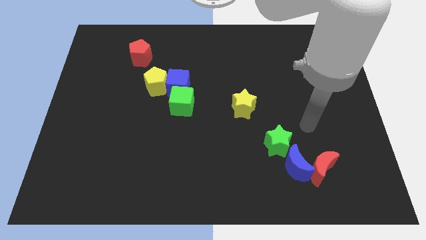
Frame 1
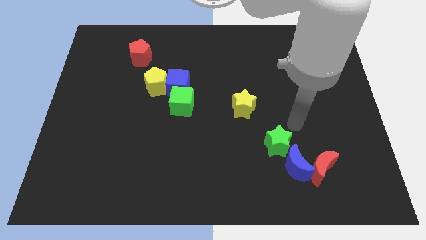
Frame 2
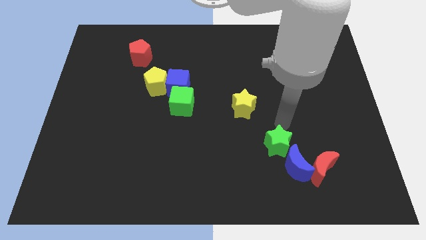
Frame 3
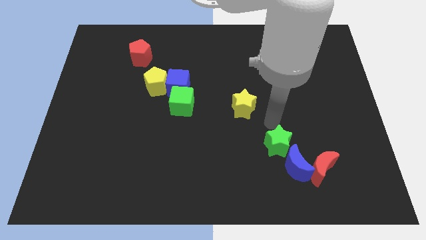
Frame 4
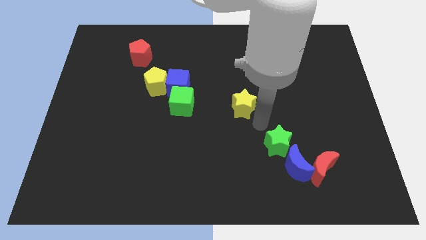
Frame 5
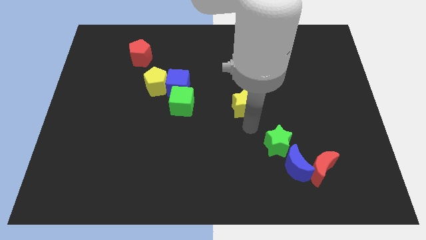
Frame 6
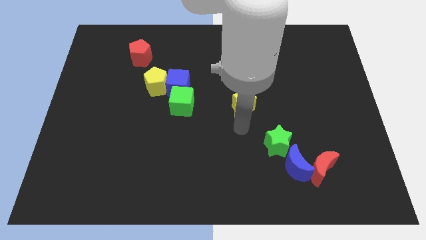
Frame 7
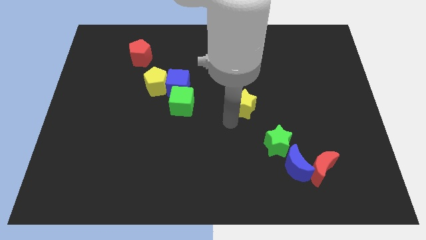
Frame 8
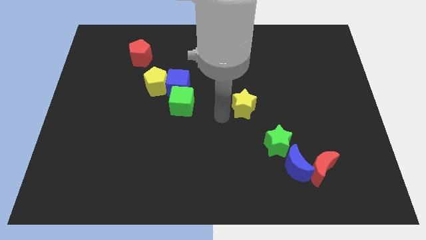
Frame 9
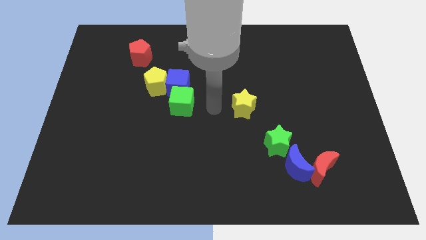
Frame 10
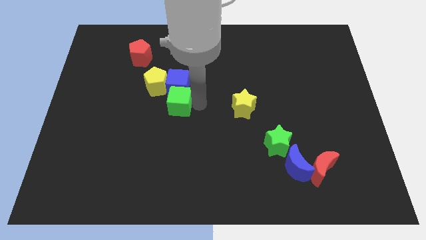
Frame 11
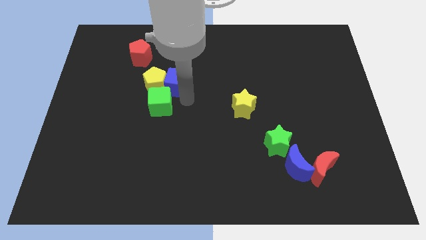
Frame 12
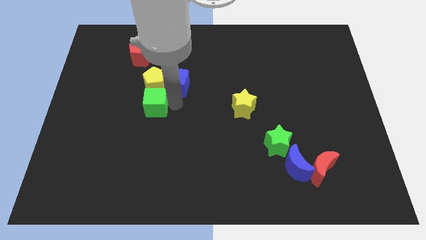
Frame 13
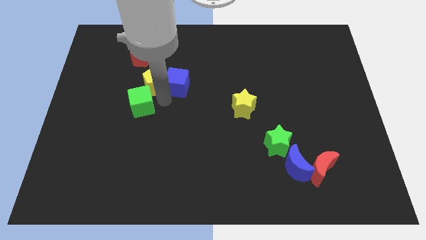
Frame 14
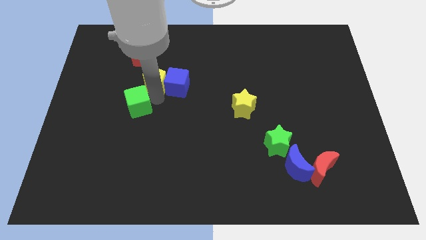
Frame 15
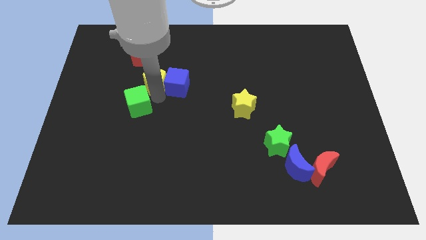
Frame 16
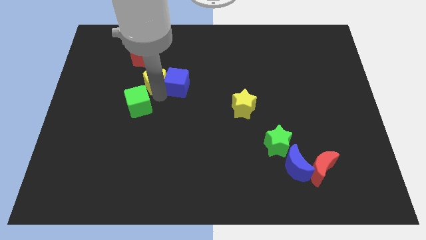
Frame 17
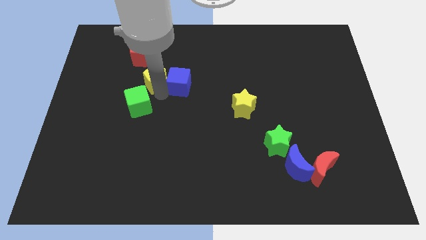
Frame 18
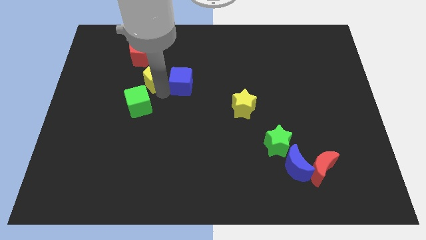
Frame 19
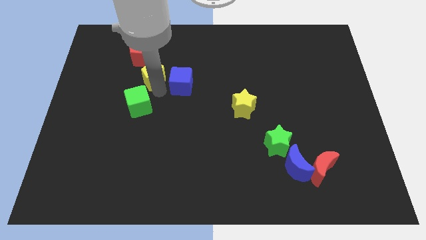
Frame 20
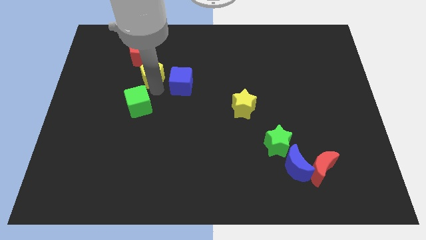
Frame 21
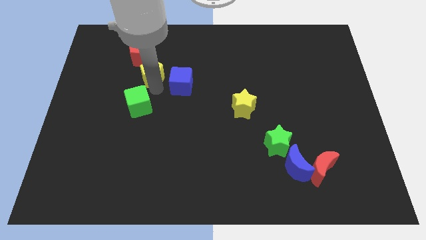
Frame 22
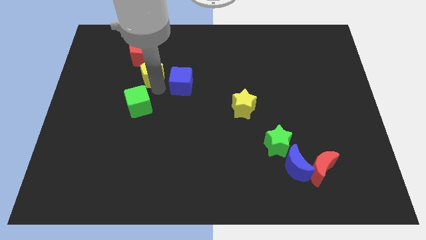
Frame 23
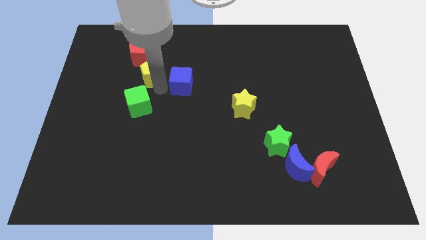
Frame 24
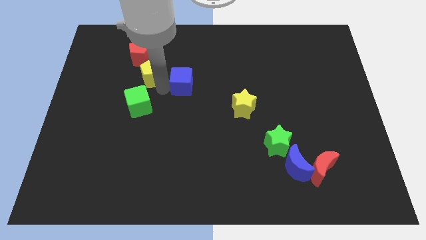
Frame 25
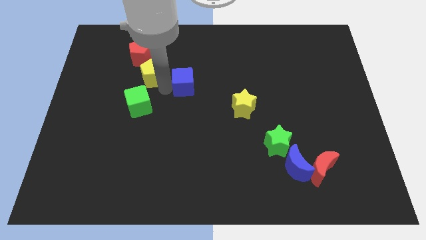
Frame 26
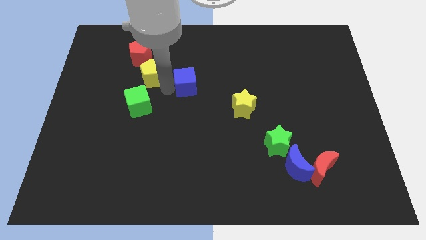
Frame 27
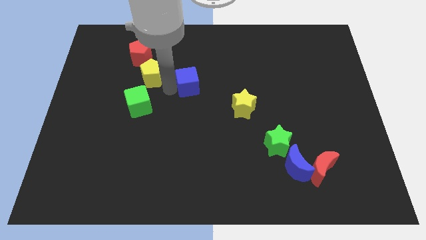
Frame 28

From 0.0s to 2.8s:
pull the blue cube apart from the yellow pentagon and green cube

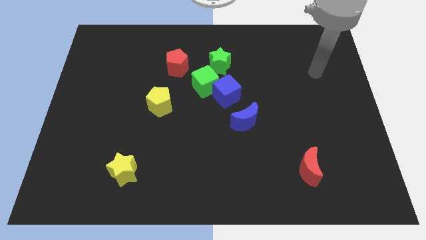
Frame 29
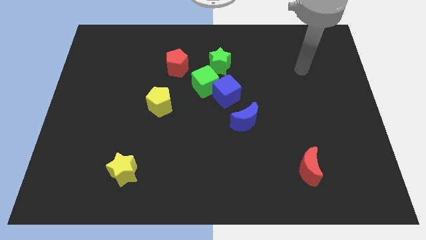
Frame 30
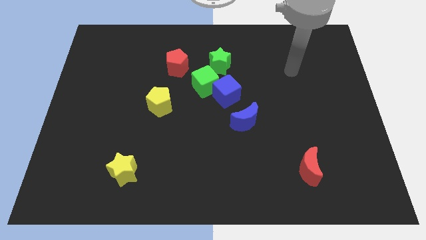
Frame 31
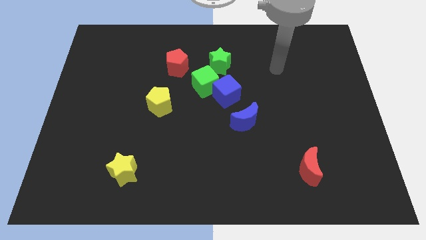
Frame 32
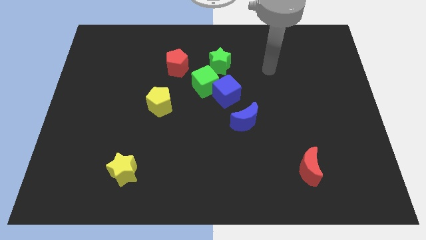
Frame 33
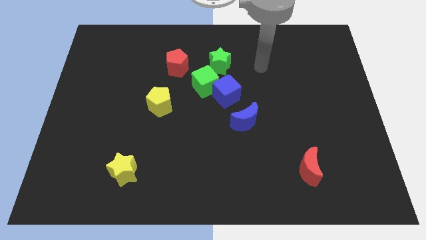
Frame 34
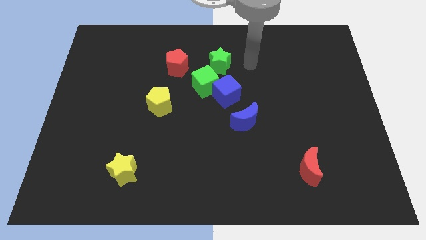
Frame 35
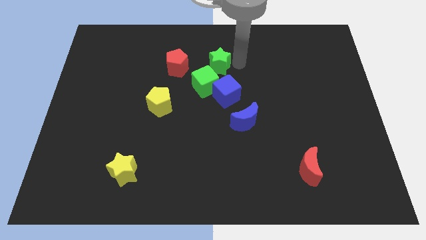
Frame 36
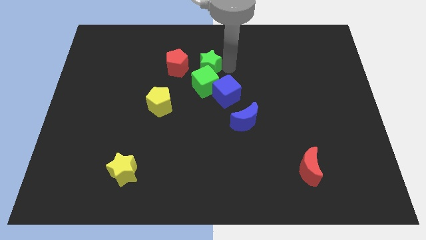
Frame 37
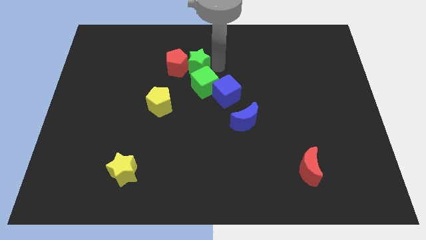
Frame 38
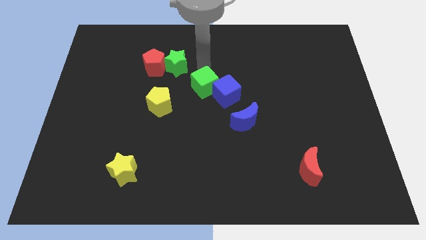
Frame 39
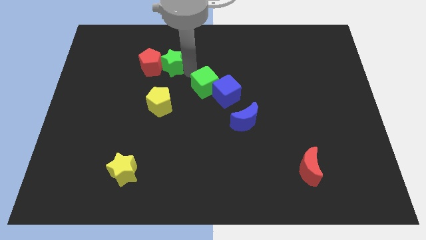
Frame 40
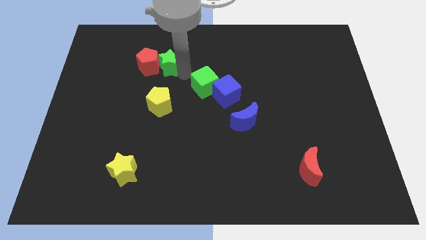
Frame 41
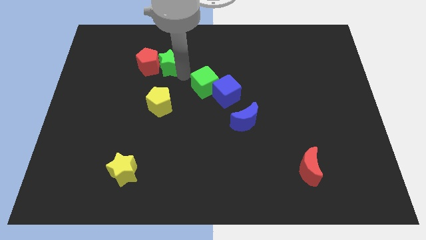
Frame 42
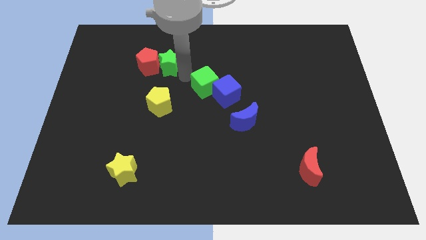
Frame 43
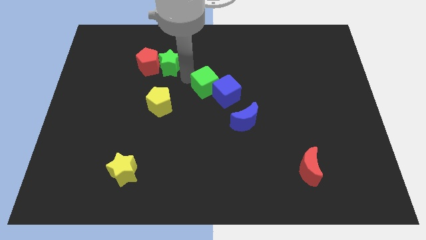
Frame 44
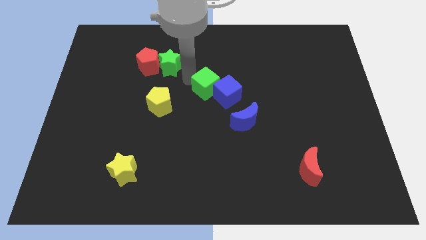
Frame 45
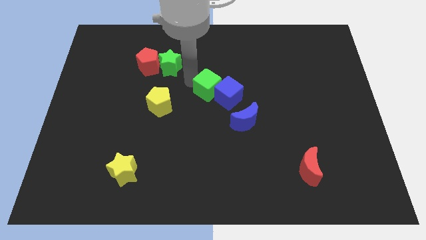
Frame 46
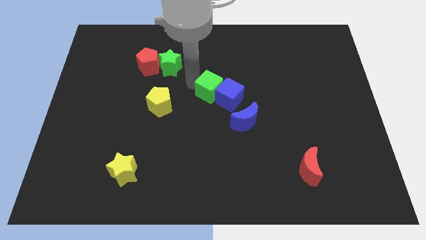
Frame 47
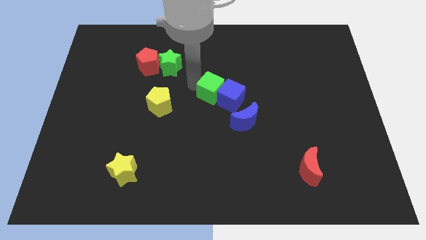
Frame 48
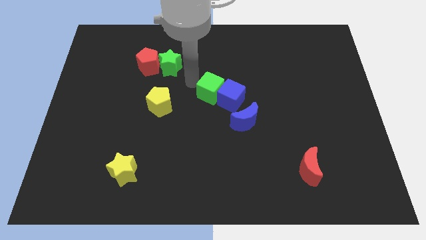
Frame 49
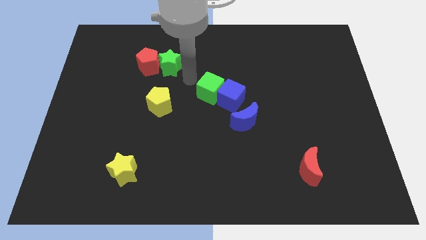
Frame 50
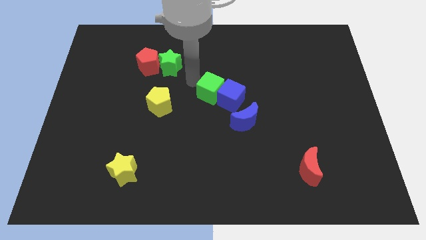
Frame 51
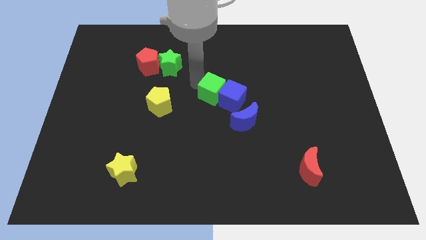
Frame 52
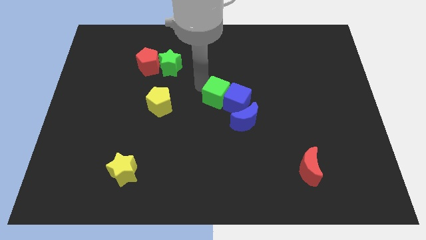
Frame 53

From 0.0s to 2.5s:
pull the green cube apart from the blue cube, green star, and red pentagon

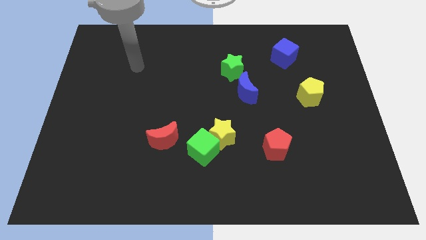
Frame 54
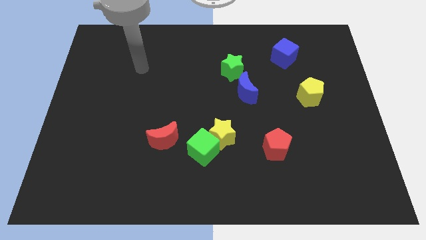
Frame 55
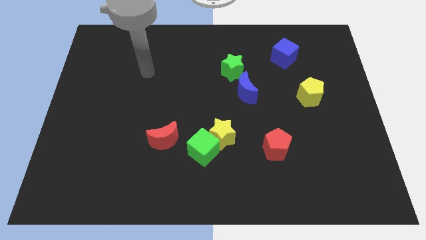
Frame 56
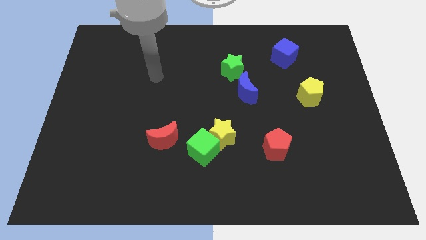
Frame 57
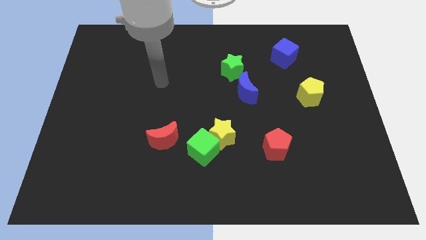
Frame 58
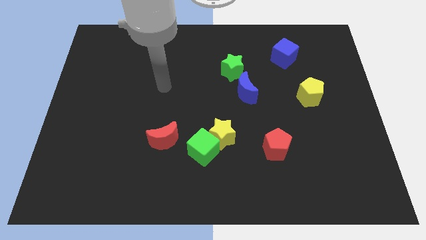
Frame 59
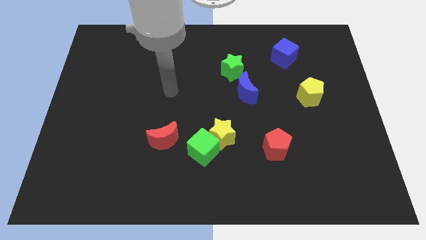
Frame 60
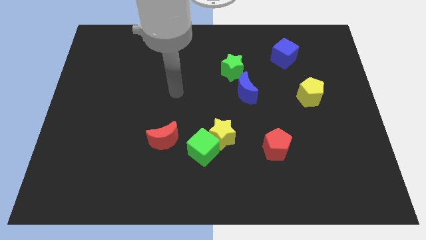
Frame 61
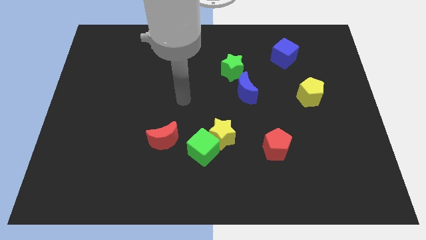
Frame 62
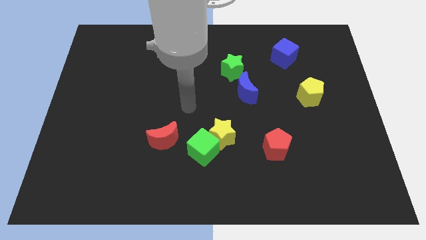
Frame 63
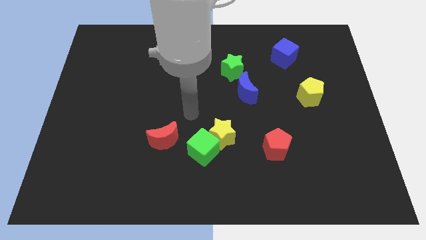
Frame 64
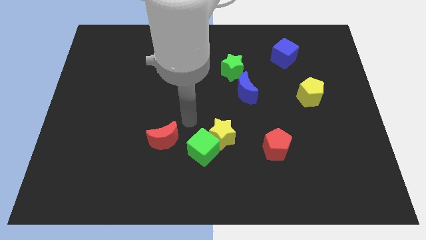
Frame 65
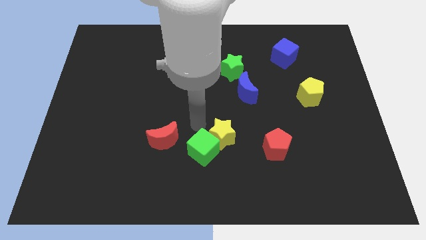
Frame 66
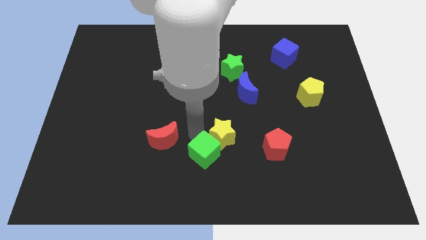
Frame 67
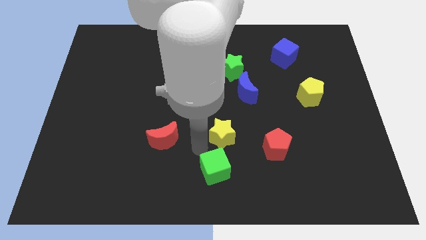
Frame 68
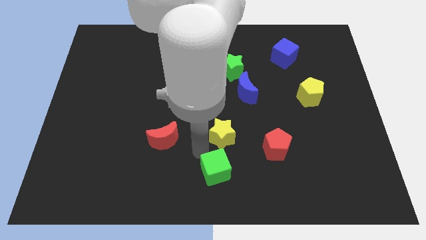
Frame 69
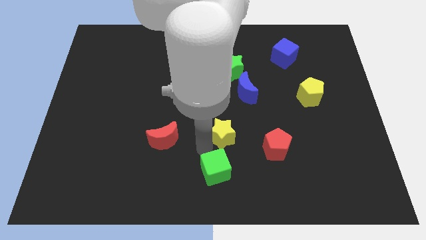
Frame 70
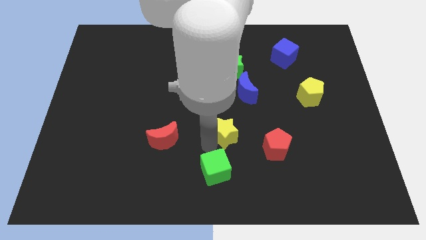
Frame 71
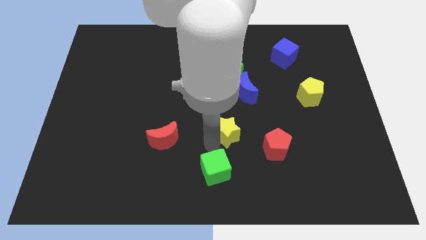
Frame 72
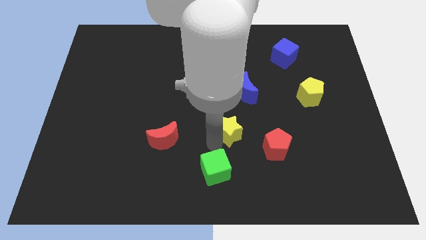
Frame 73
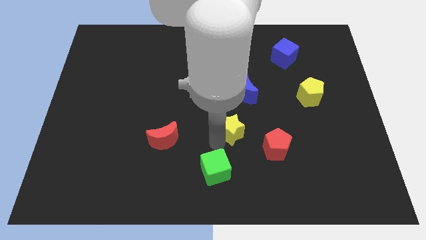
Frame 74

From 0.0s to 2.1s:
move the yellow star away from the green cube

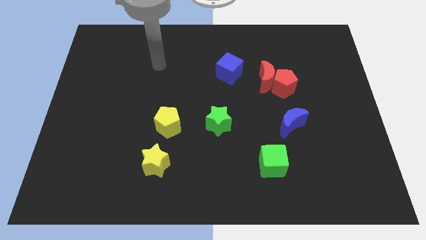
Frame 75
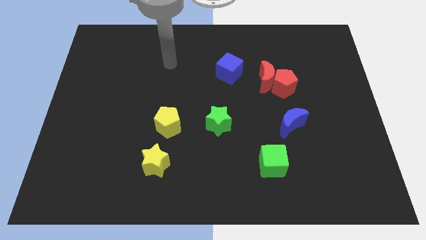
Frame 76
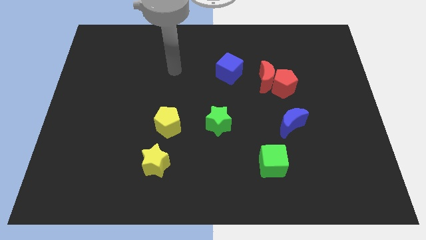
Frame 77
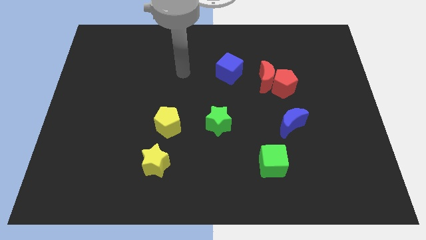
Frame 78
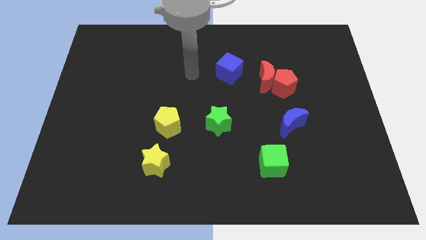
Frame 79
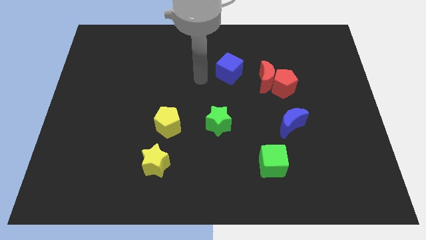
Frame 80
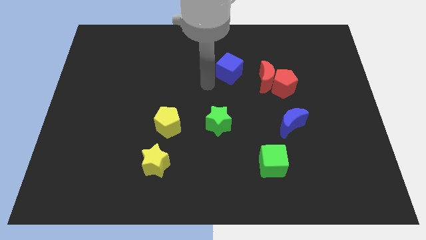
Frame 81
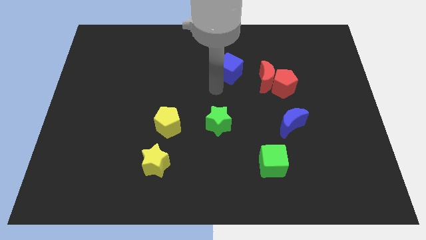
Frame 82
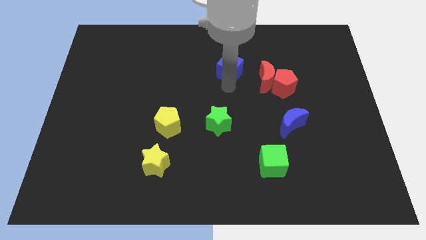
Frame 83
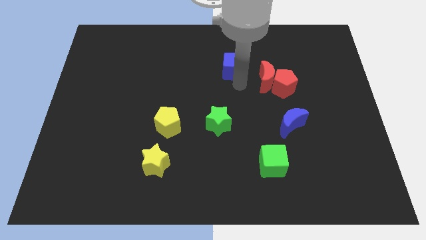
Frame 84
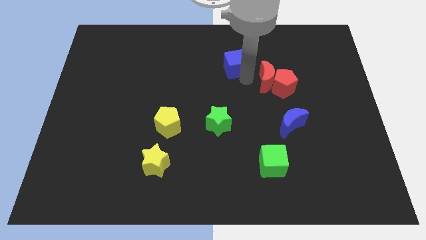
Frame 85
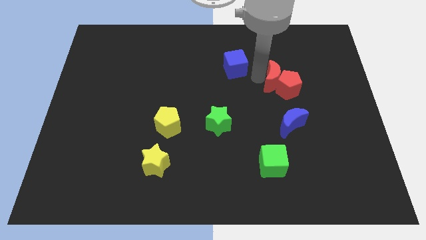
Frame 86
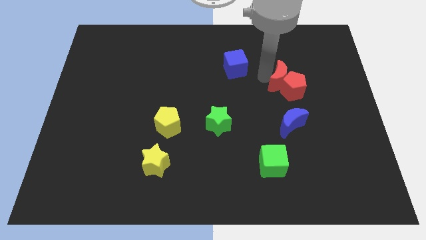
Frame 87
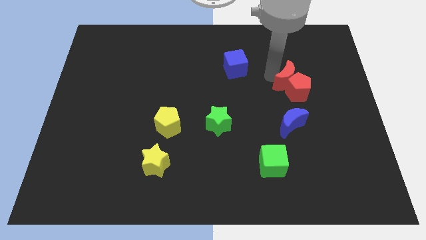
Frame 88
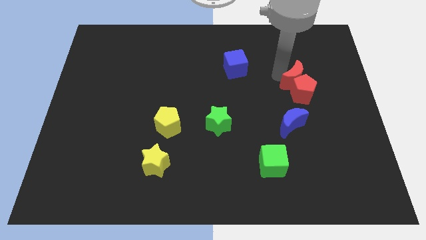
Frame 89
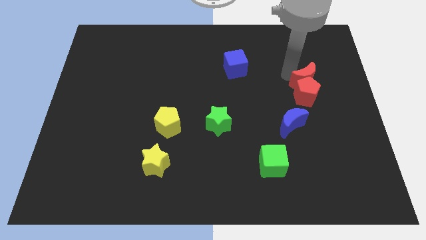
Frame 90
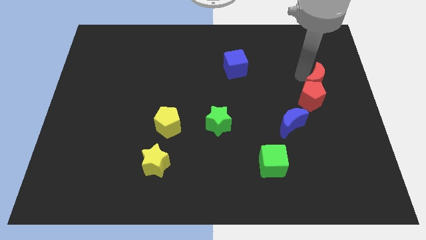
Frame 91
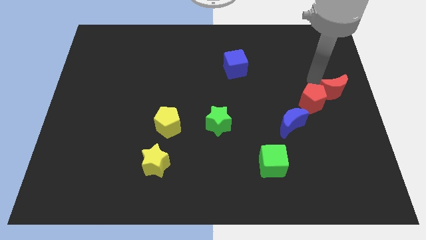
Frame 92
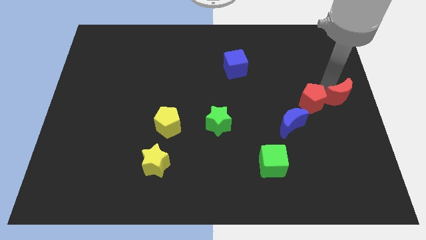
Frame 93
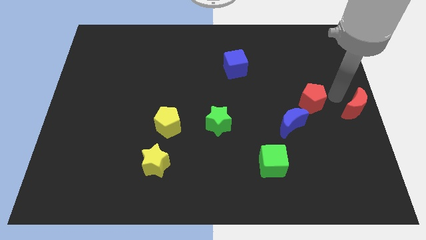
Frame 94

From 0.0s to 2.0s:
move the red pentagon away from the red moon
